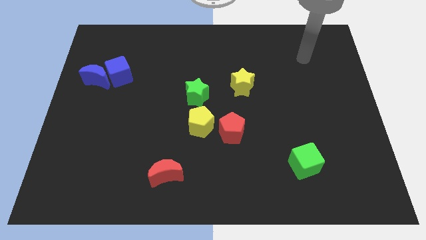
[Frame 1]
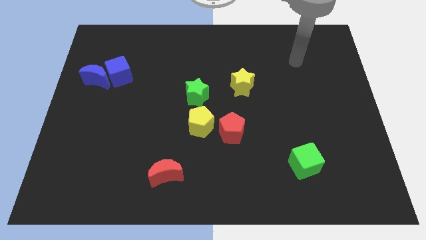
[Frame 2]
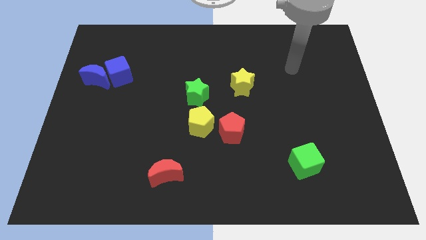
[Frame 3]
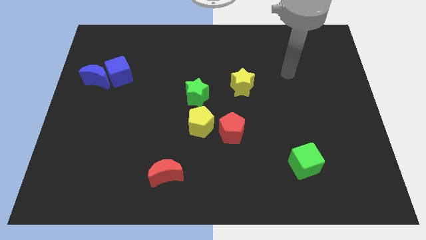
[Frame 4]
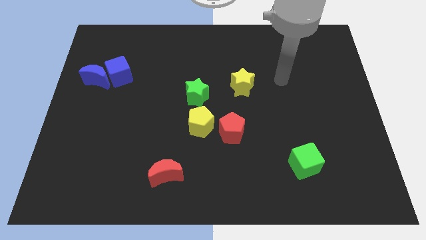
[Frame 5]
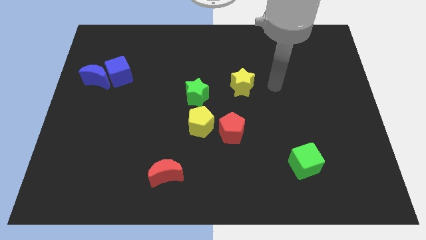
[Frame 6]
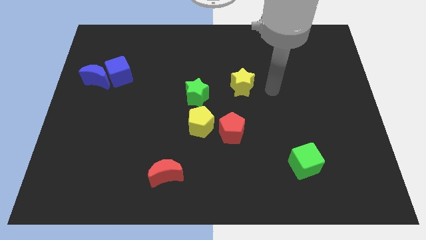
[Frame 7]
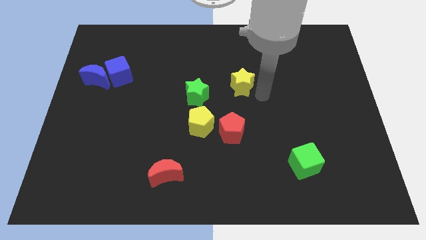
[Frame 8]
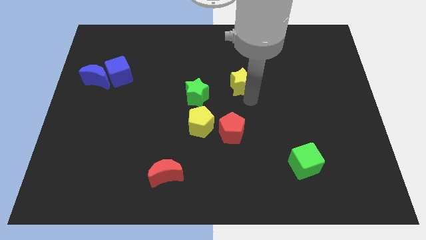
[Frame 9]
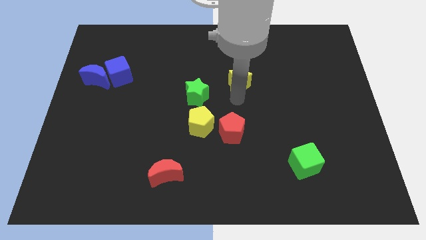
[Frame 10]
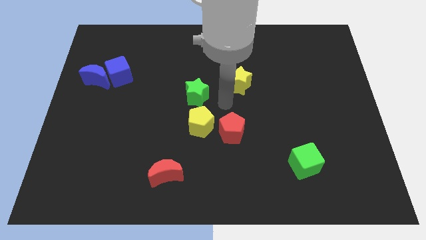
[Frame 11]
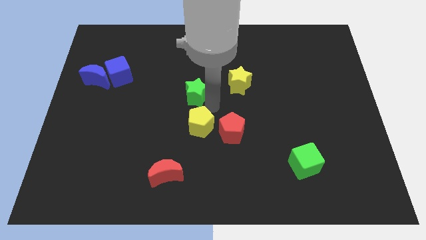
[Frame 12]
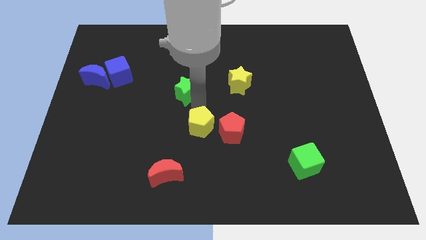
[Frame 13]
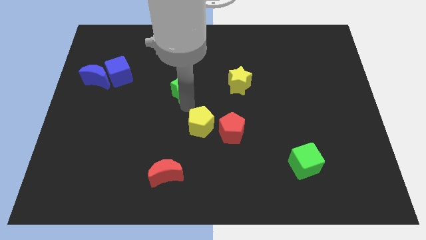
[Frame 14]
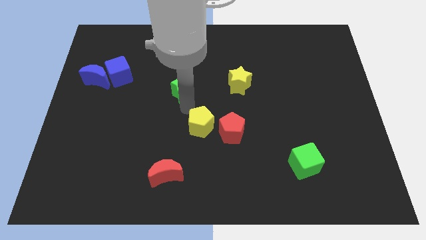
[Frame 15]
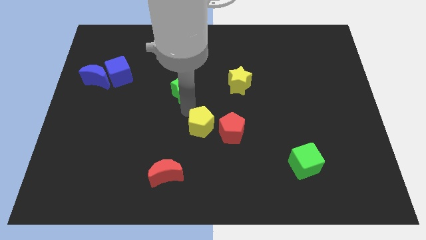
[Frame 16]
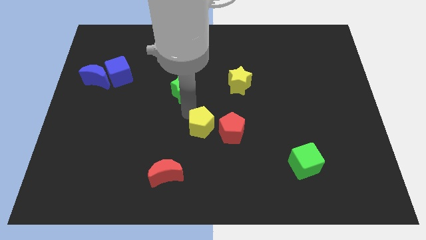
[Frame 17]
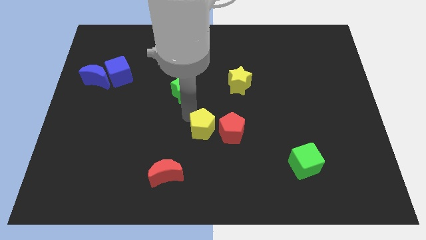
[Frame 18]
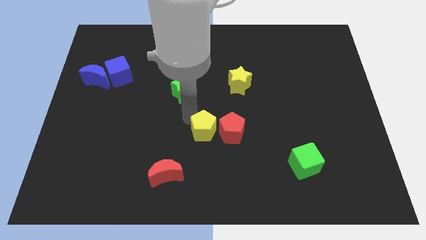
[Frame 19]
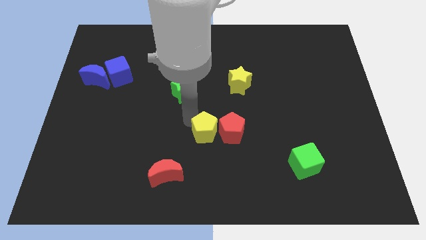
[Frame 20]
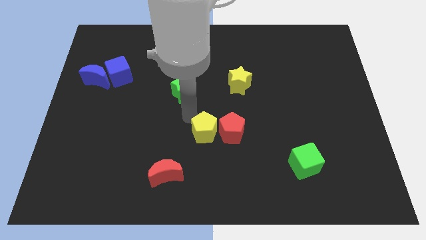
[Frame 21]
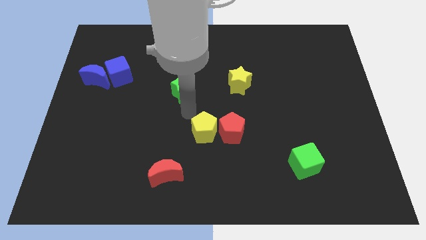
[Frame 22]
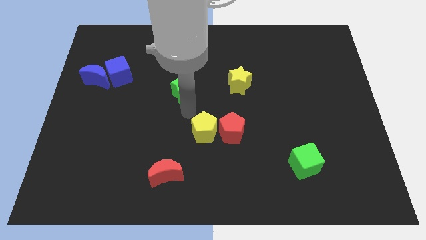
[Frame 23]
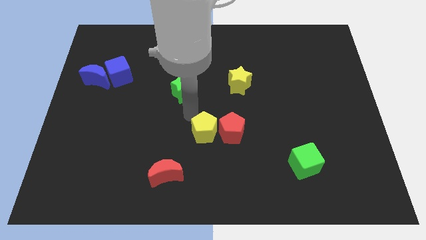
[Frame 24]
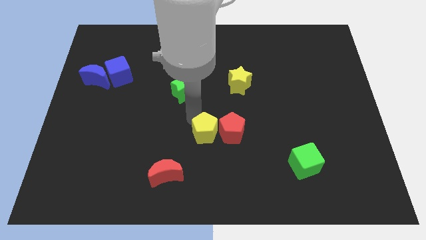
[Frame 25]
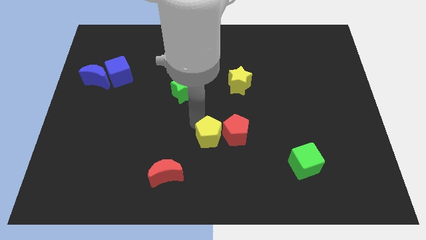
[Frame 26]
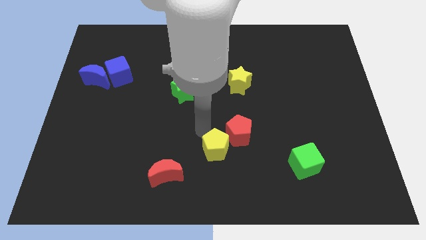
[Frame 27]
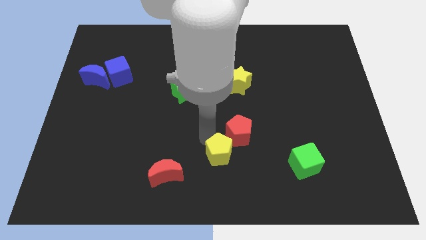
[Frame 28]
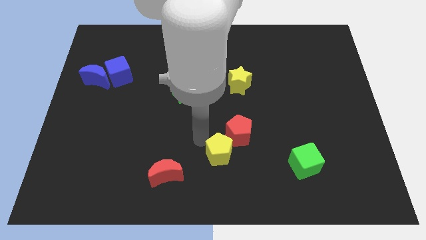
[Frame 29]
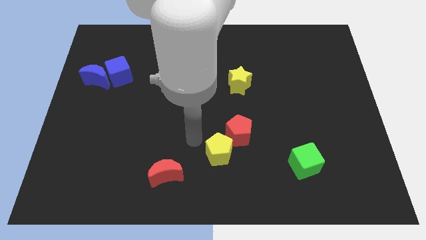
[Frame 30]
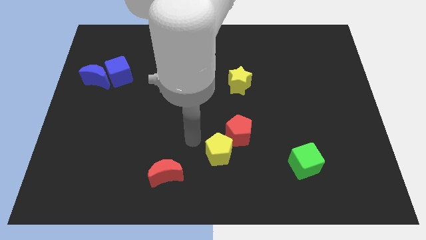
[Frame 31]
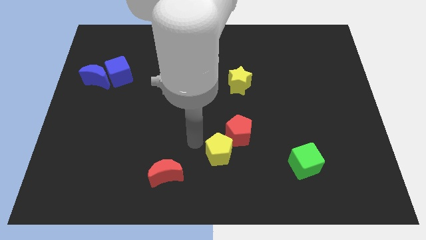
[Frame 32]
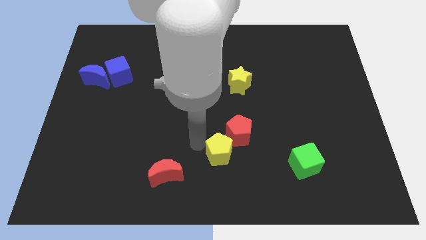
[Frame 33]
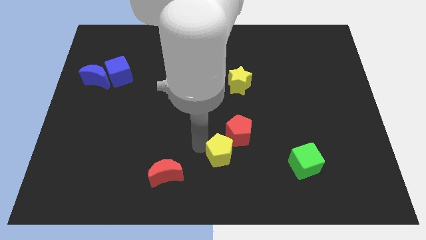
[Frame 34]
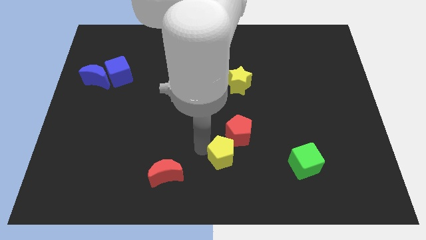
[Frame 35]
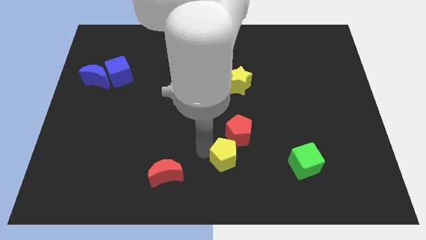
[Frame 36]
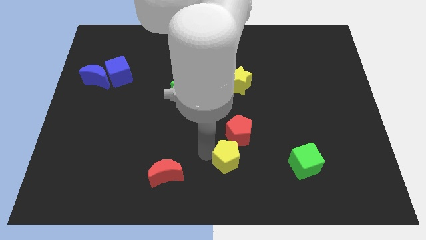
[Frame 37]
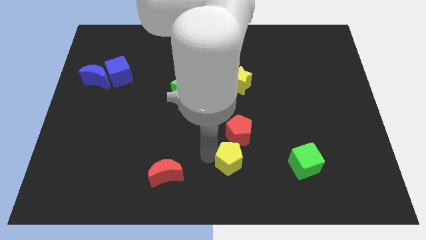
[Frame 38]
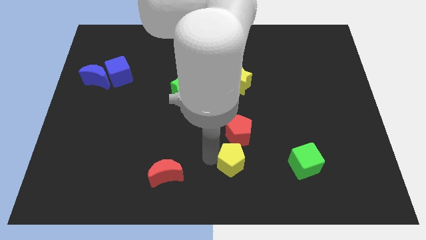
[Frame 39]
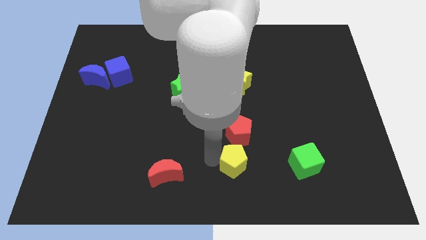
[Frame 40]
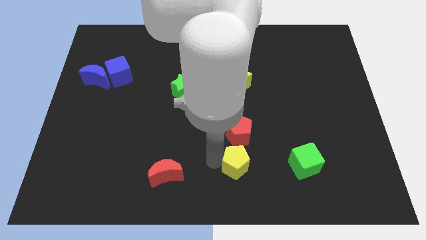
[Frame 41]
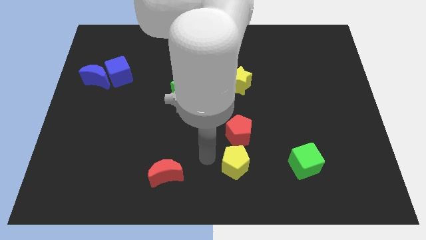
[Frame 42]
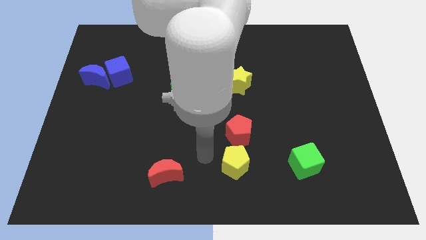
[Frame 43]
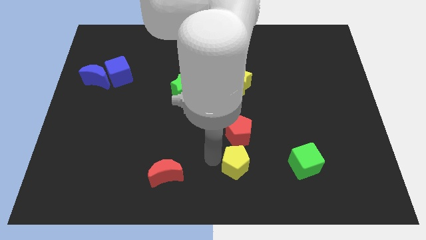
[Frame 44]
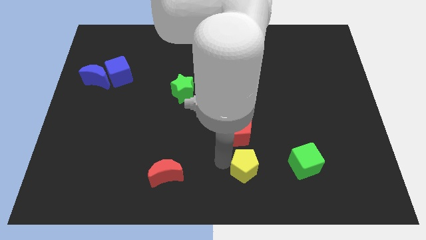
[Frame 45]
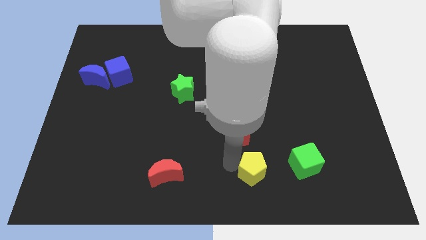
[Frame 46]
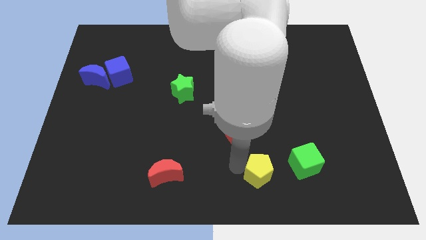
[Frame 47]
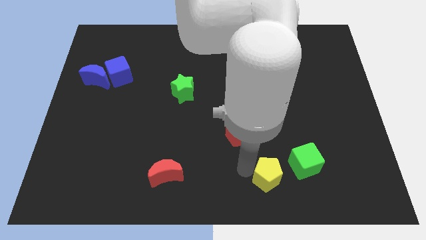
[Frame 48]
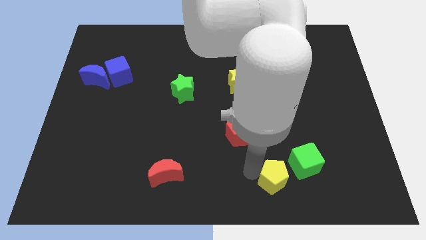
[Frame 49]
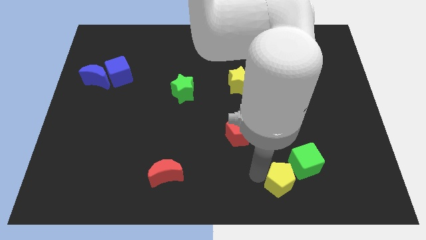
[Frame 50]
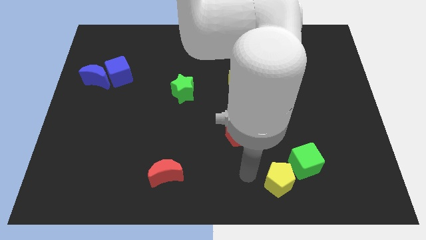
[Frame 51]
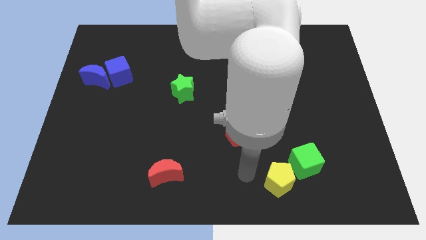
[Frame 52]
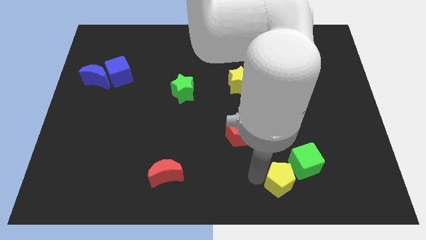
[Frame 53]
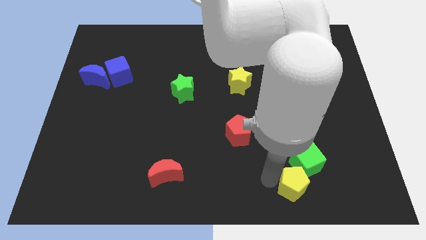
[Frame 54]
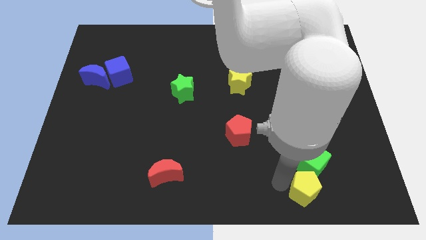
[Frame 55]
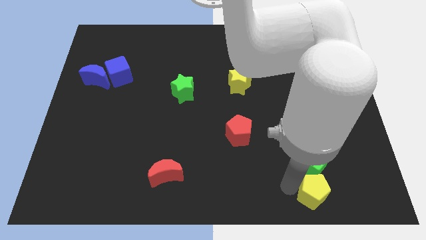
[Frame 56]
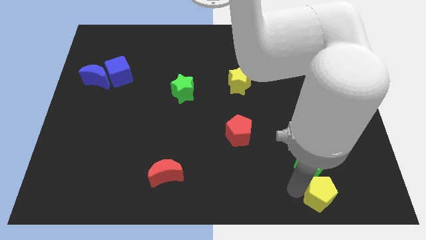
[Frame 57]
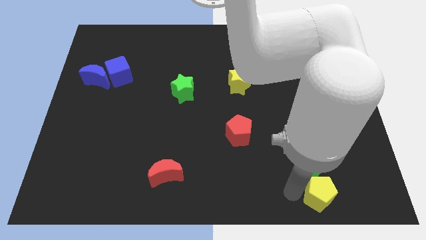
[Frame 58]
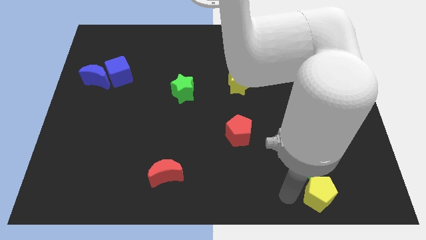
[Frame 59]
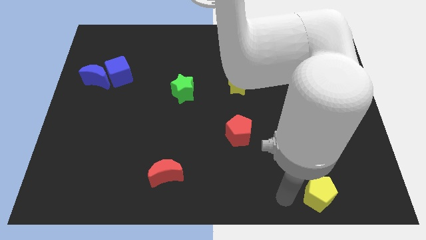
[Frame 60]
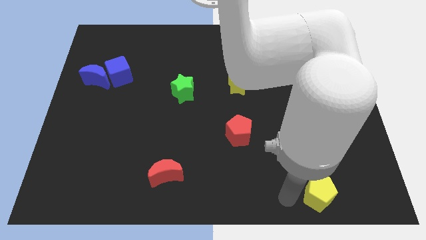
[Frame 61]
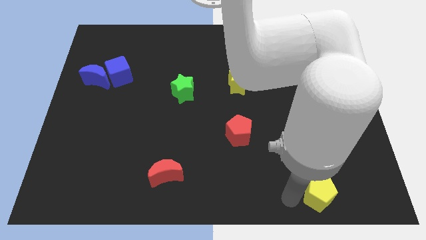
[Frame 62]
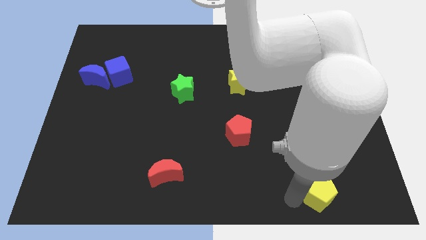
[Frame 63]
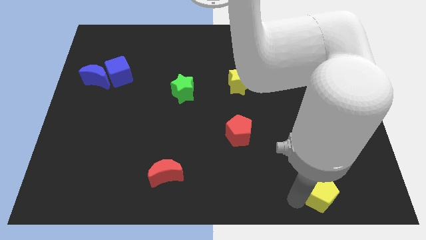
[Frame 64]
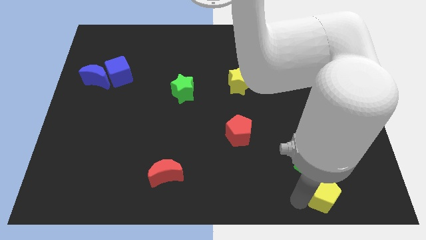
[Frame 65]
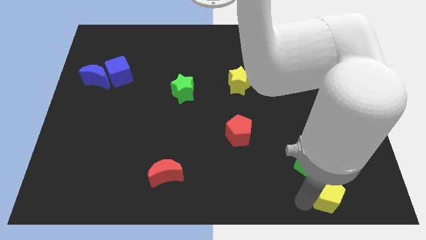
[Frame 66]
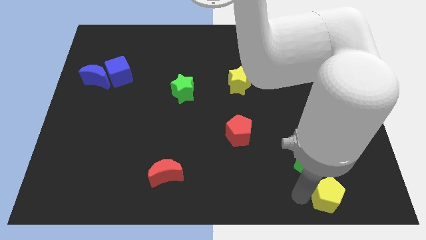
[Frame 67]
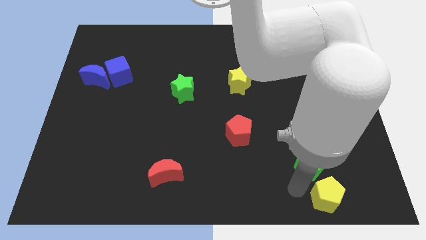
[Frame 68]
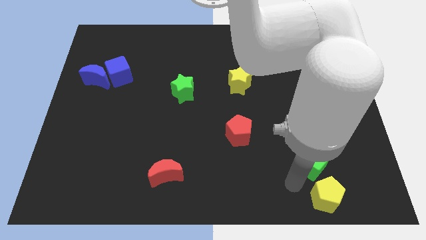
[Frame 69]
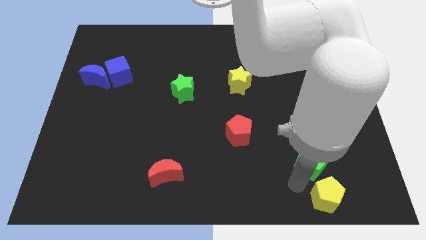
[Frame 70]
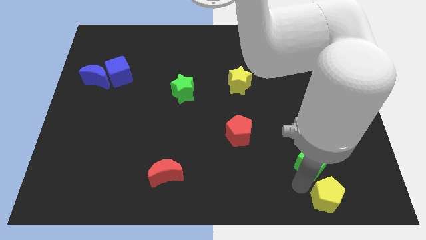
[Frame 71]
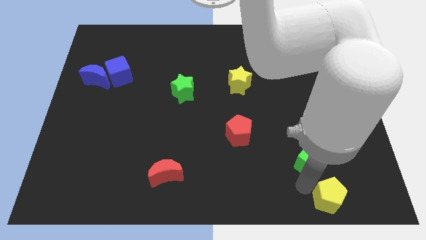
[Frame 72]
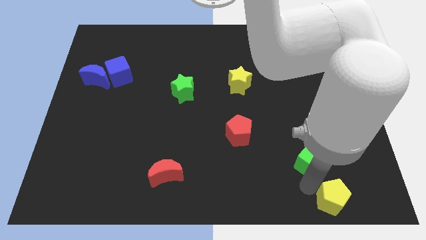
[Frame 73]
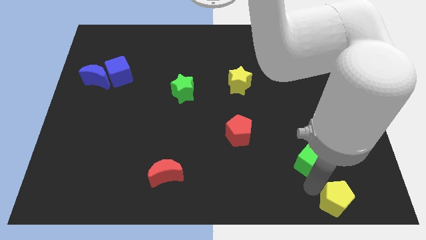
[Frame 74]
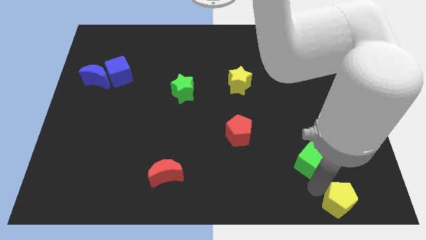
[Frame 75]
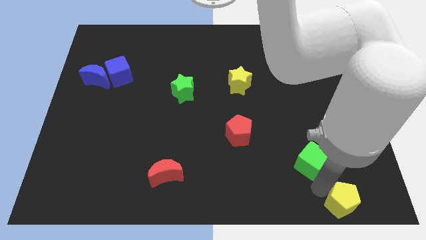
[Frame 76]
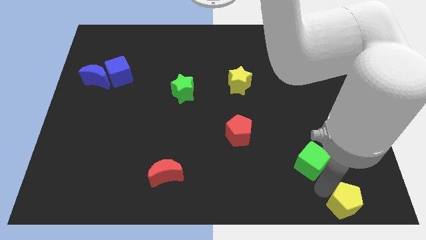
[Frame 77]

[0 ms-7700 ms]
slide the yellow pentagon to the bottom right corner
